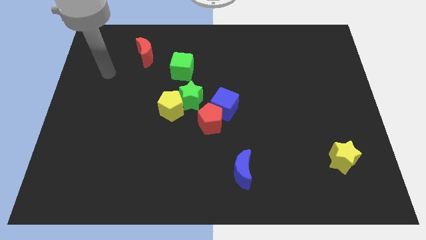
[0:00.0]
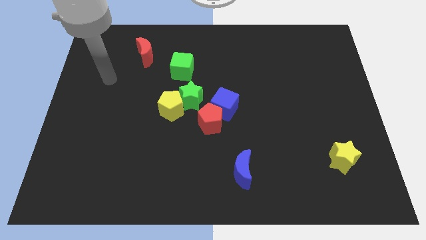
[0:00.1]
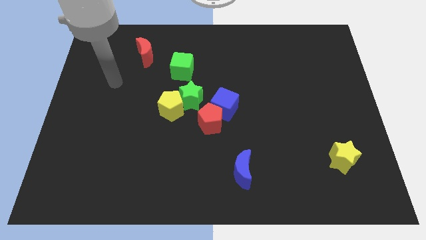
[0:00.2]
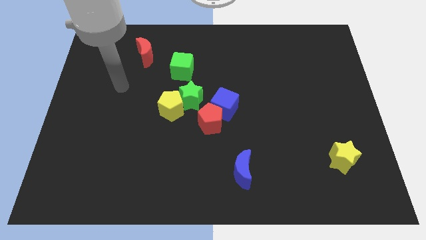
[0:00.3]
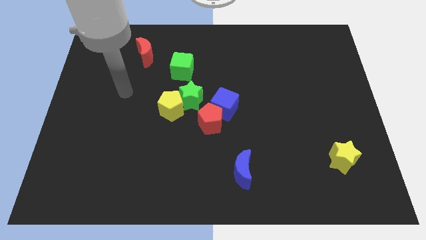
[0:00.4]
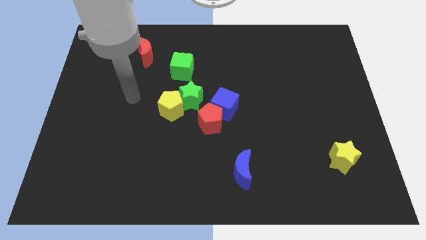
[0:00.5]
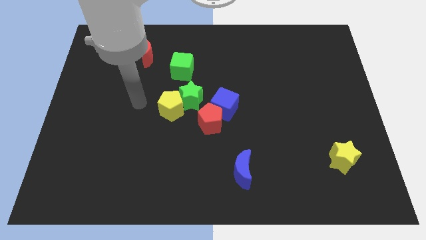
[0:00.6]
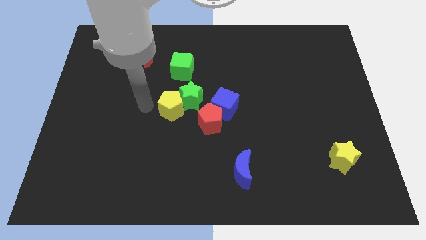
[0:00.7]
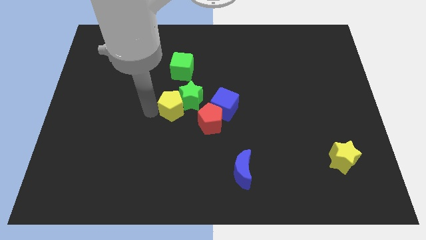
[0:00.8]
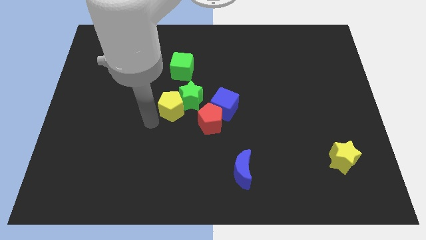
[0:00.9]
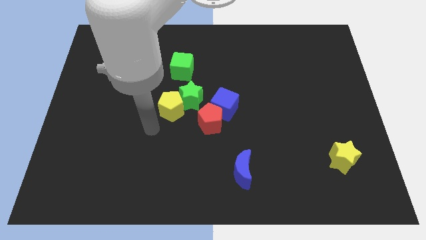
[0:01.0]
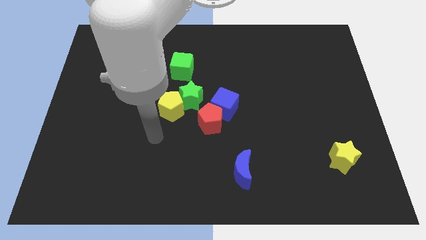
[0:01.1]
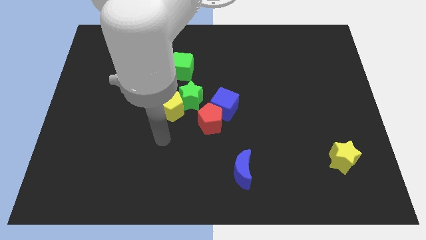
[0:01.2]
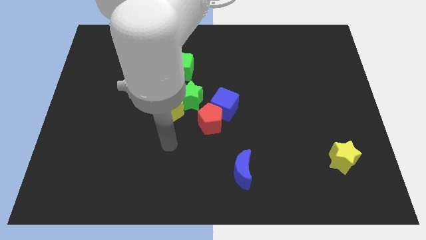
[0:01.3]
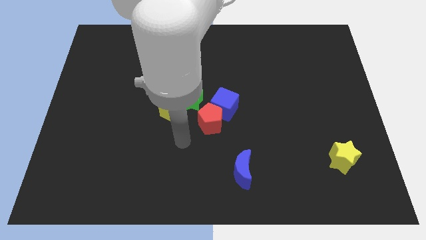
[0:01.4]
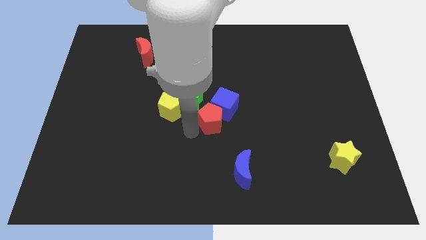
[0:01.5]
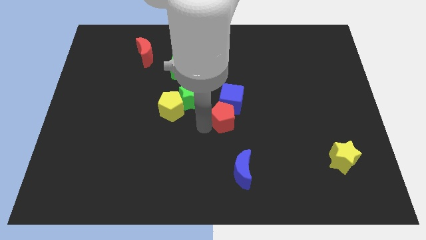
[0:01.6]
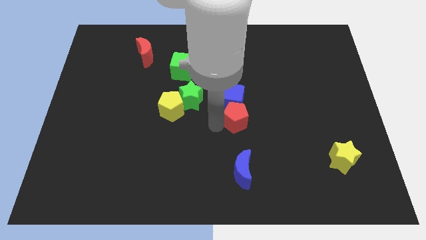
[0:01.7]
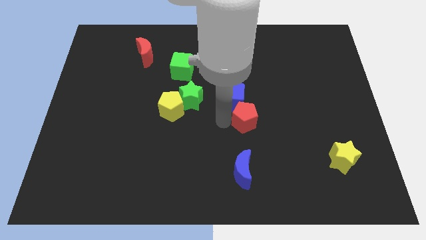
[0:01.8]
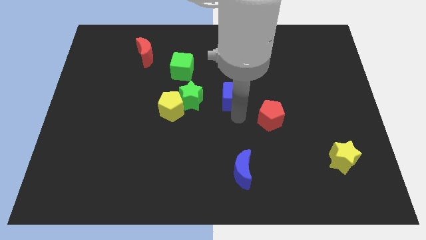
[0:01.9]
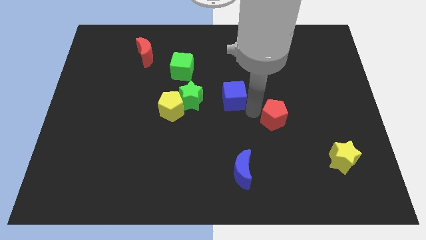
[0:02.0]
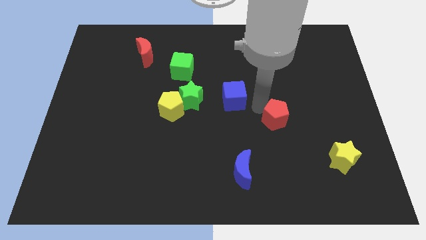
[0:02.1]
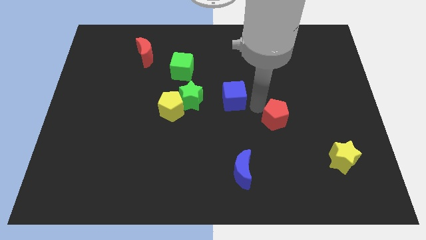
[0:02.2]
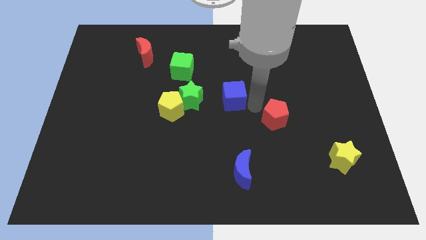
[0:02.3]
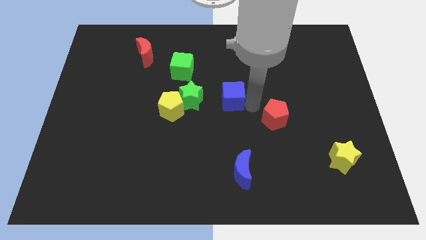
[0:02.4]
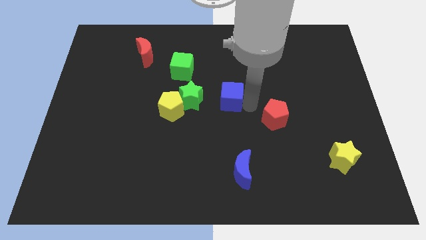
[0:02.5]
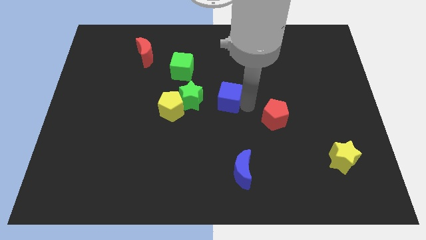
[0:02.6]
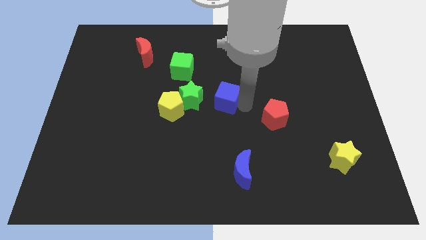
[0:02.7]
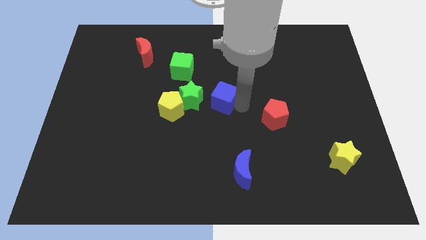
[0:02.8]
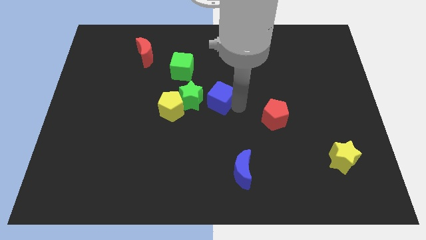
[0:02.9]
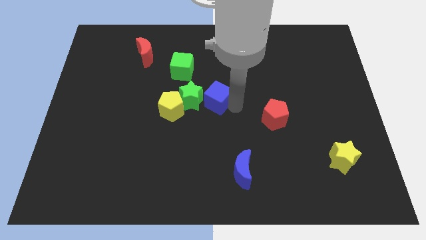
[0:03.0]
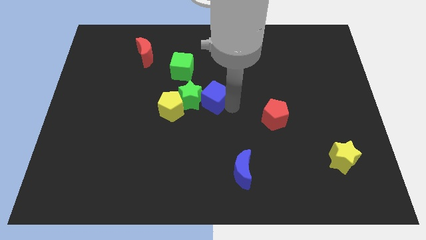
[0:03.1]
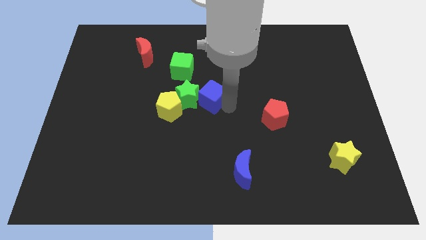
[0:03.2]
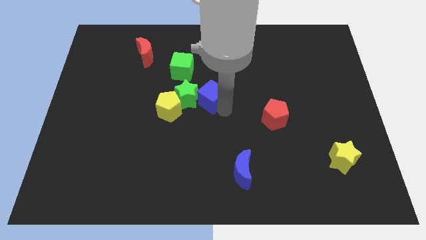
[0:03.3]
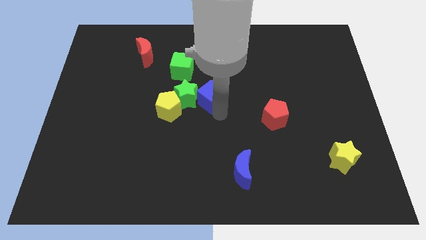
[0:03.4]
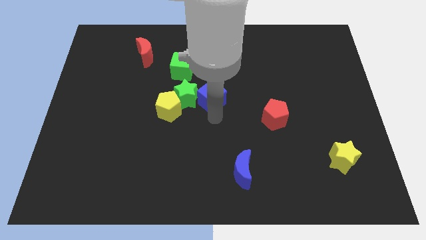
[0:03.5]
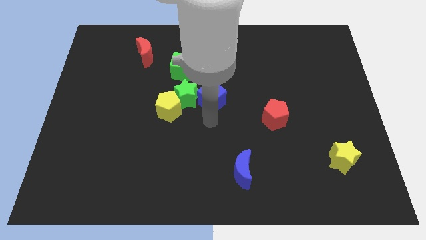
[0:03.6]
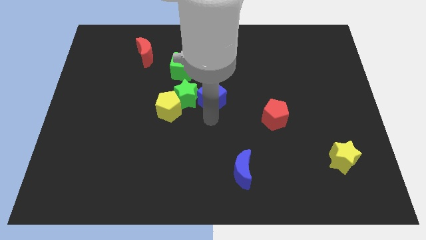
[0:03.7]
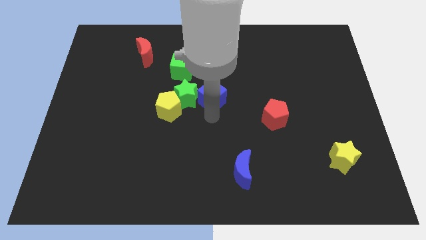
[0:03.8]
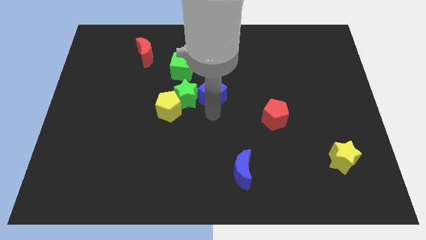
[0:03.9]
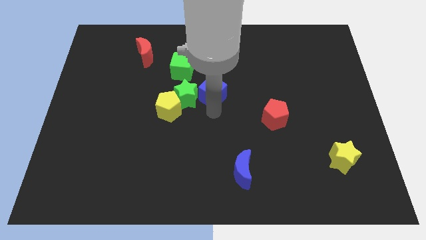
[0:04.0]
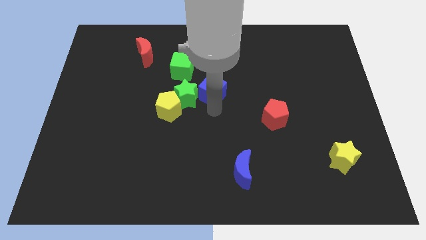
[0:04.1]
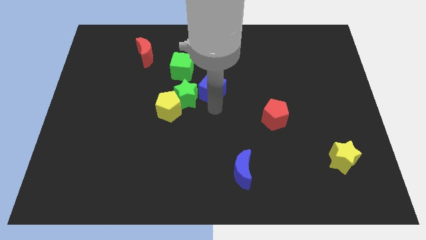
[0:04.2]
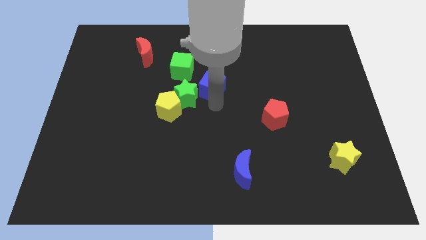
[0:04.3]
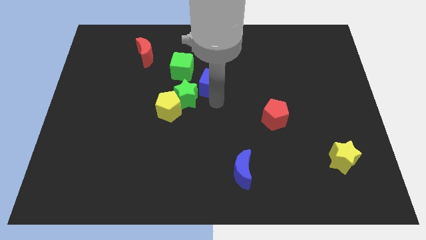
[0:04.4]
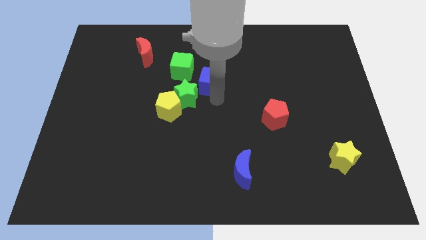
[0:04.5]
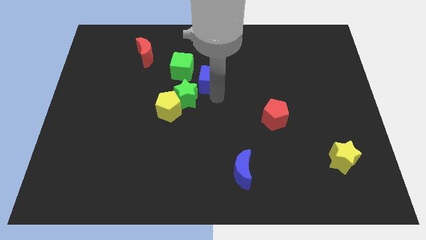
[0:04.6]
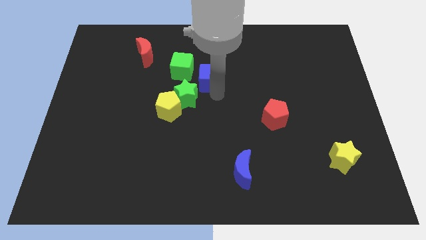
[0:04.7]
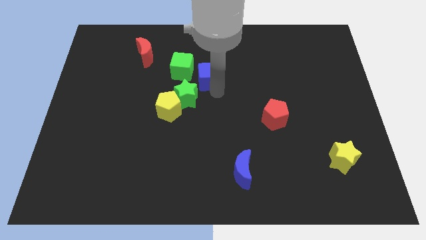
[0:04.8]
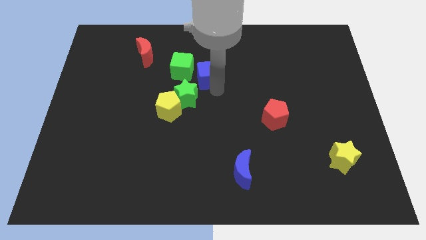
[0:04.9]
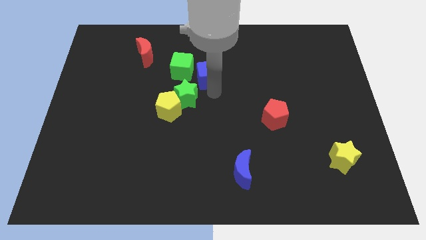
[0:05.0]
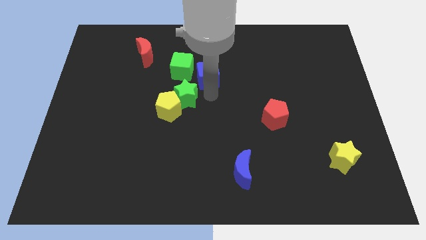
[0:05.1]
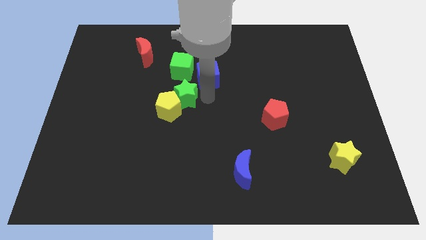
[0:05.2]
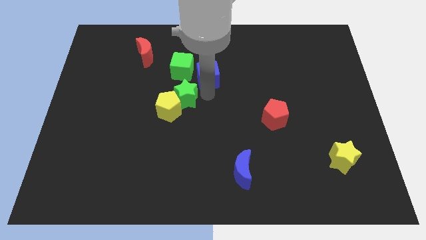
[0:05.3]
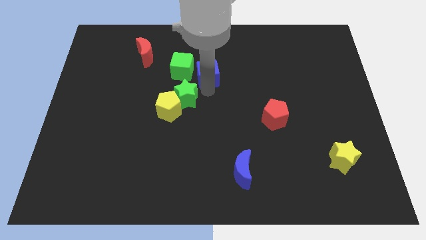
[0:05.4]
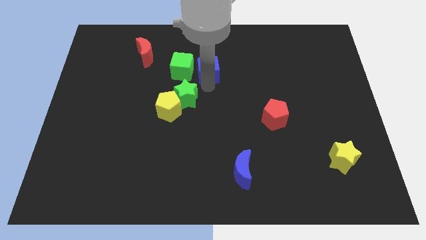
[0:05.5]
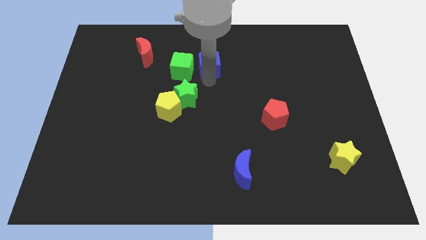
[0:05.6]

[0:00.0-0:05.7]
move the blue cube to the top right side of the green cube
